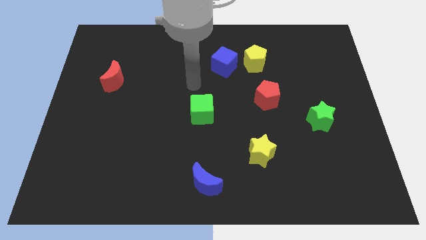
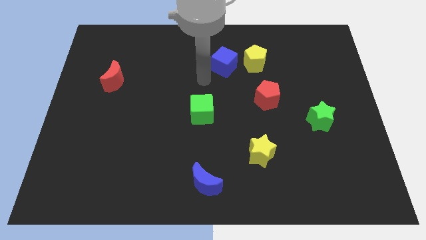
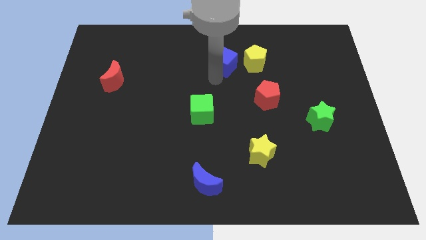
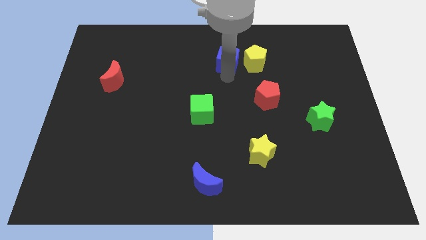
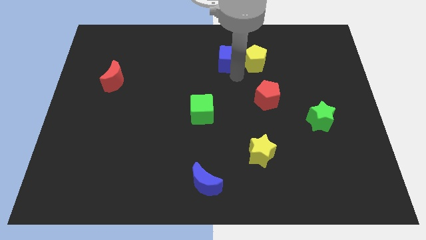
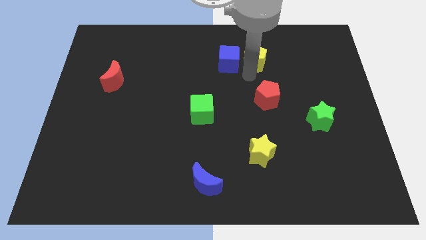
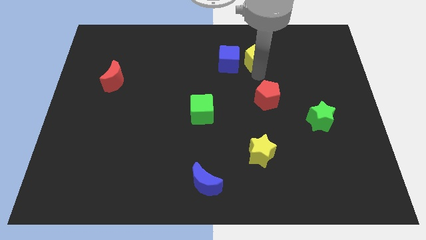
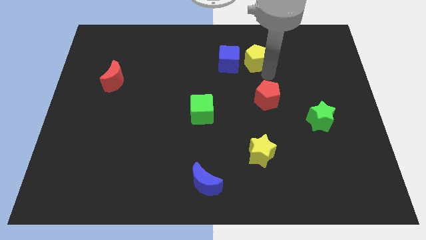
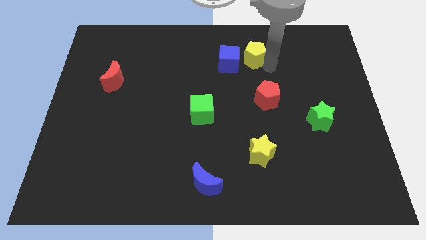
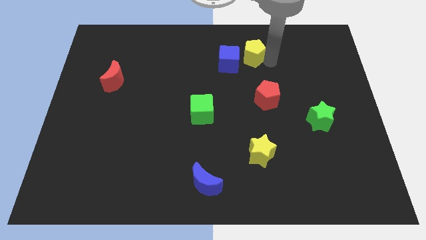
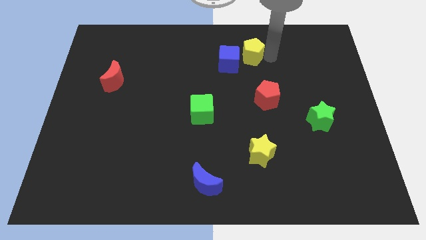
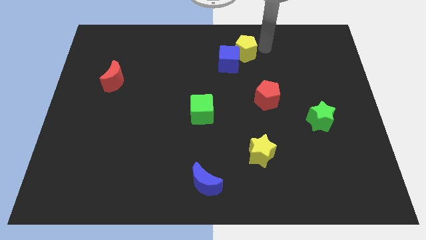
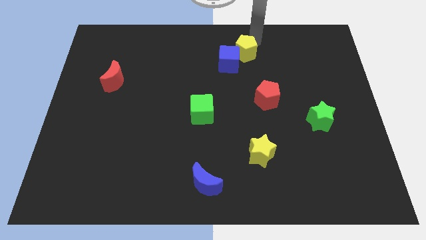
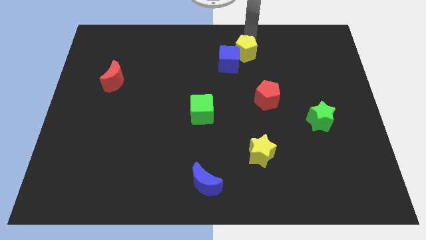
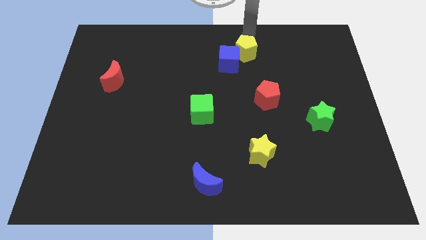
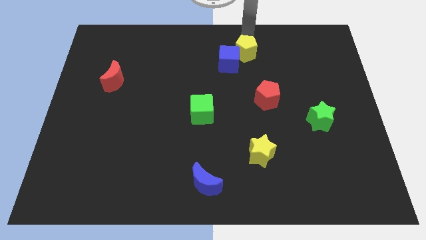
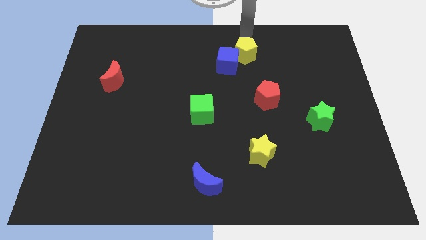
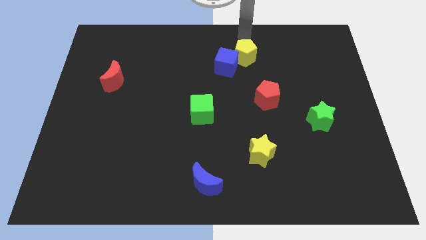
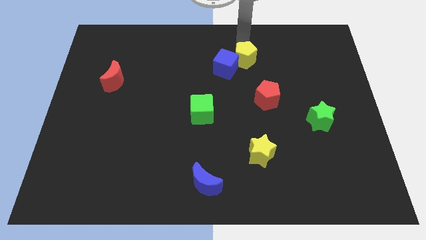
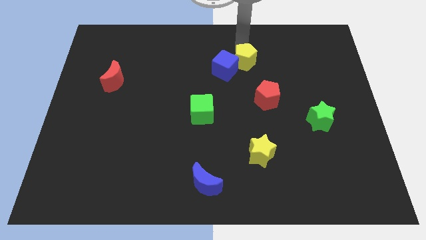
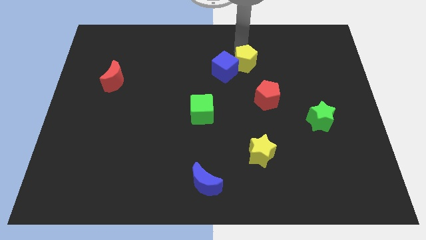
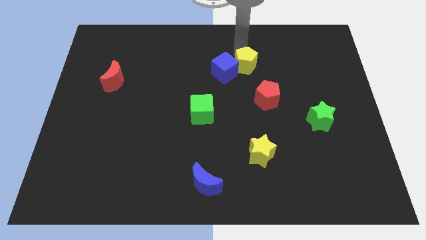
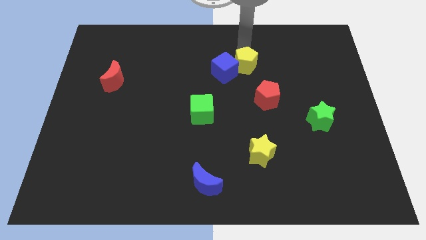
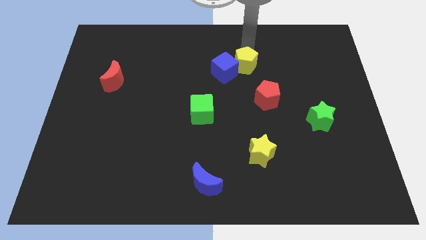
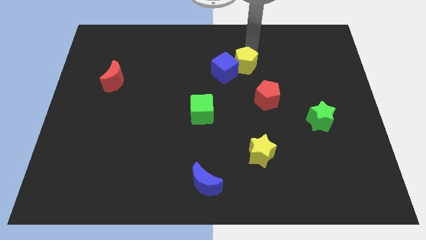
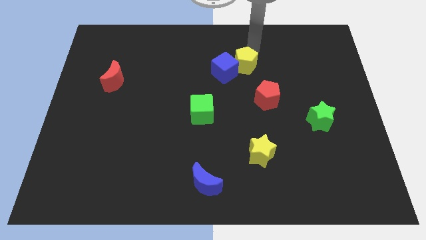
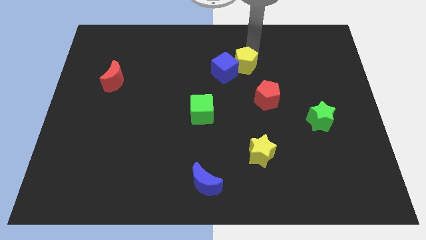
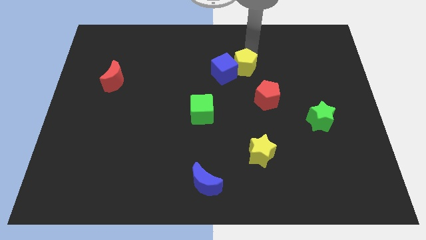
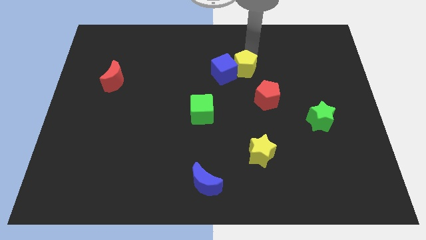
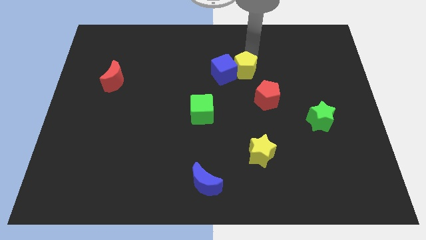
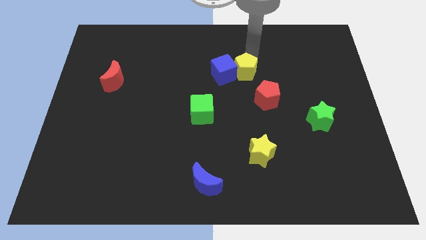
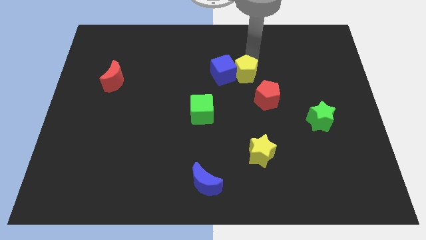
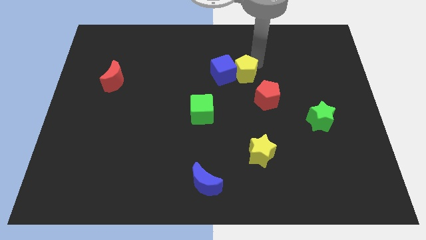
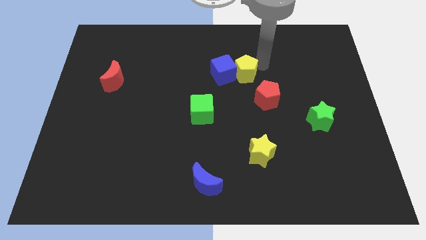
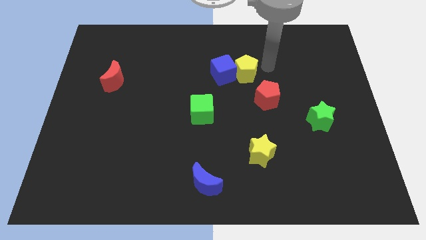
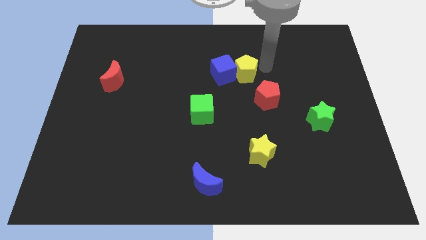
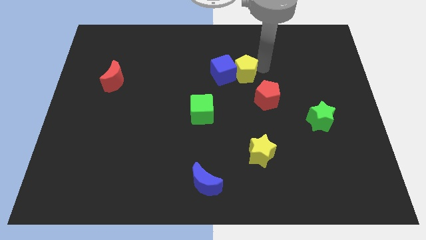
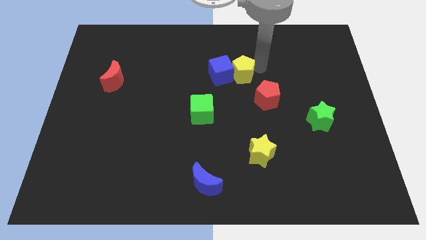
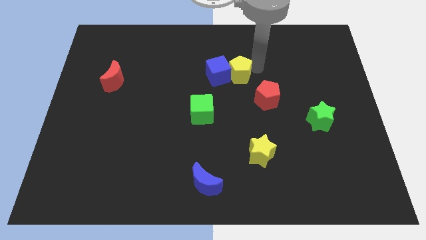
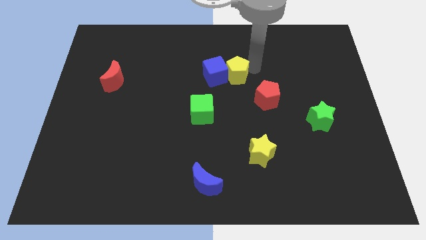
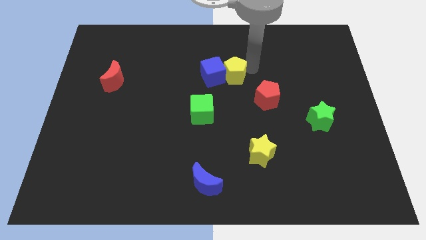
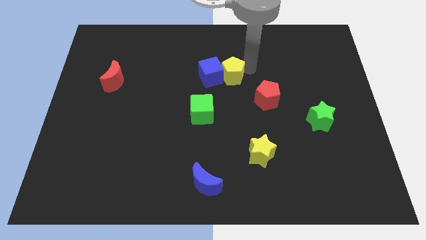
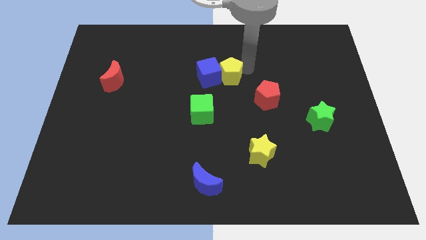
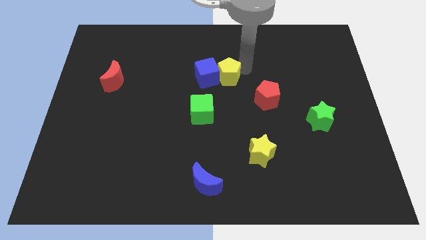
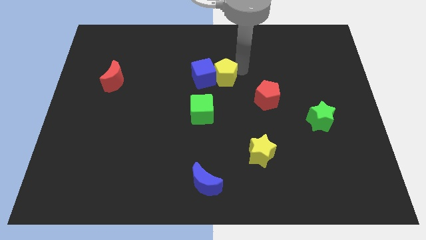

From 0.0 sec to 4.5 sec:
slightly slide the yellow pentagon left

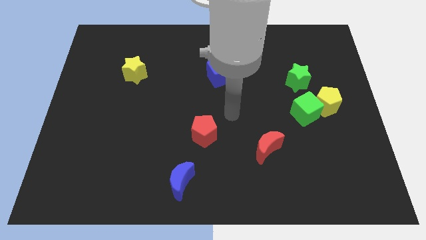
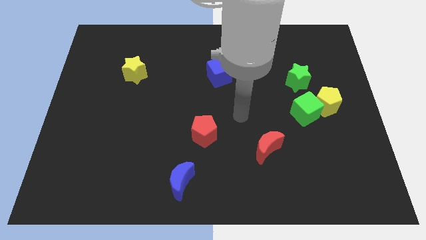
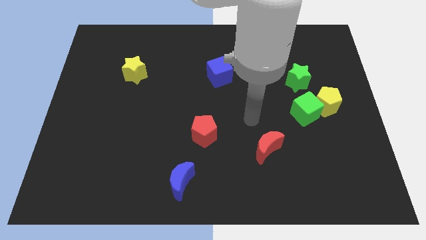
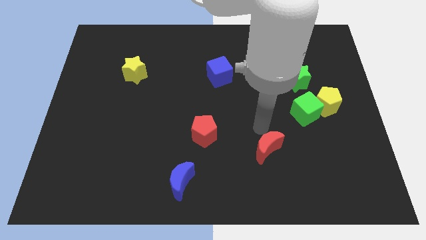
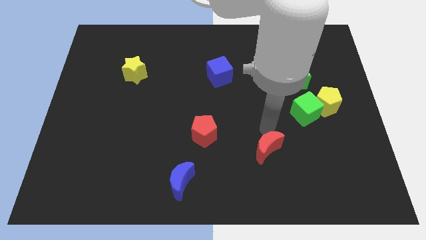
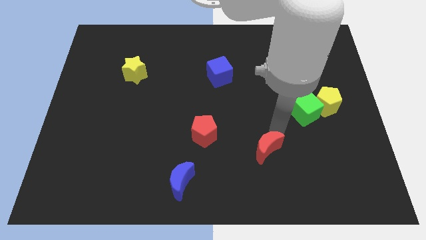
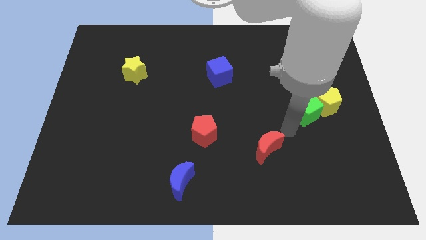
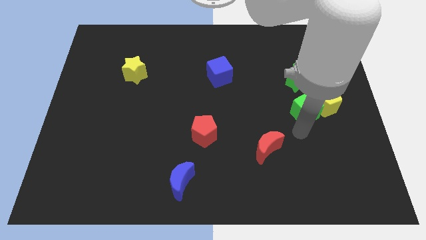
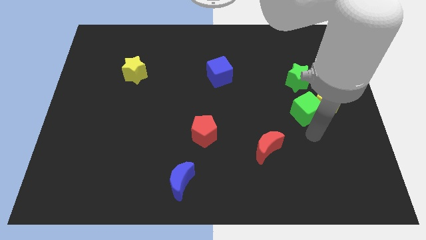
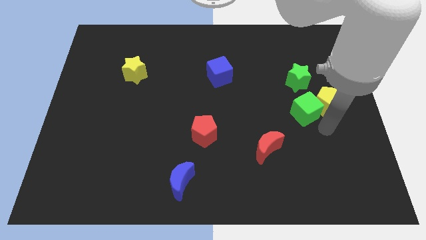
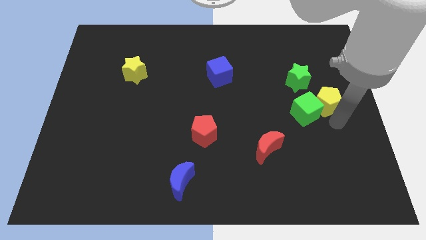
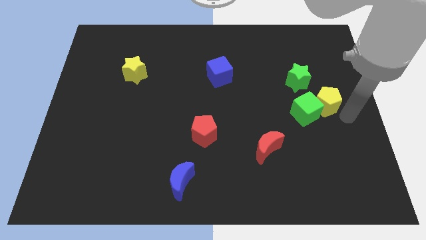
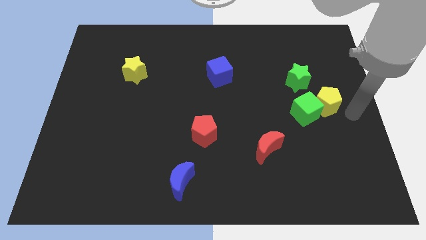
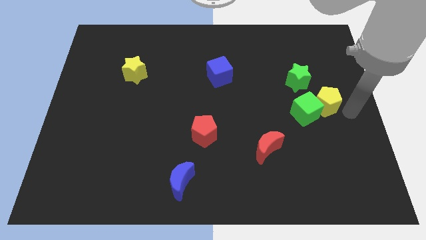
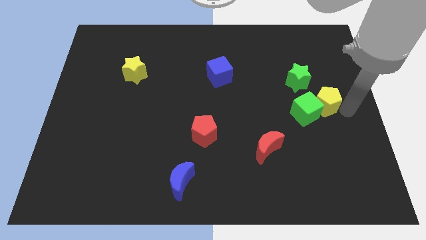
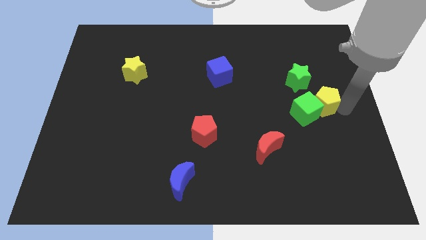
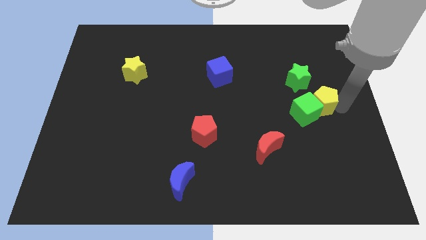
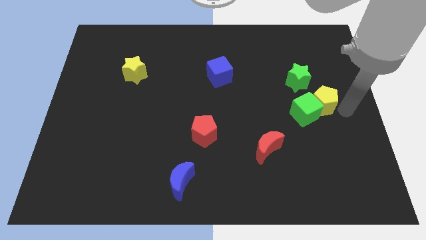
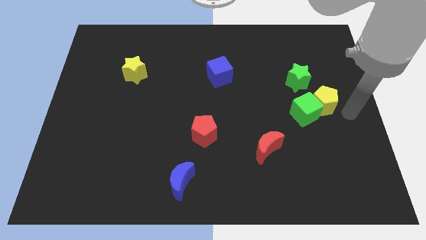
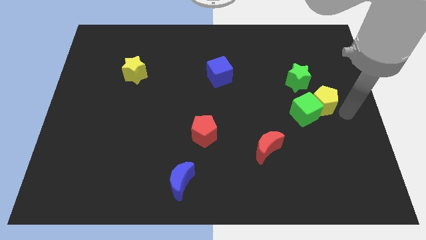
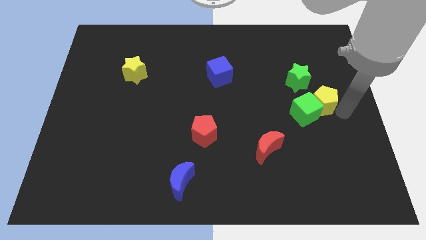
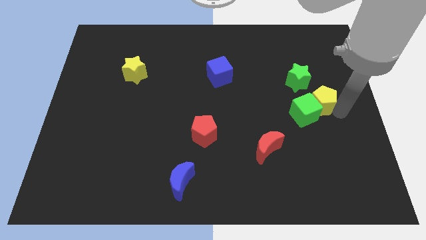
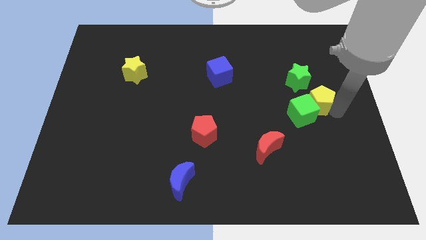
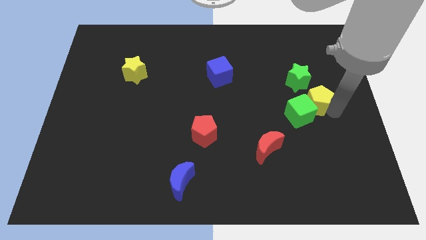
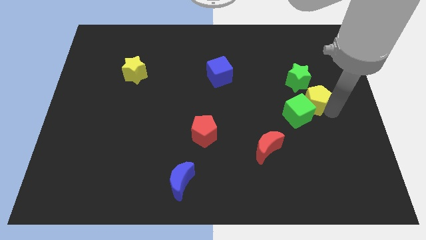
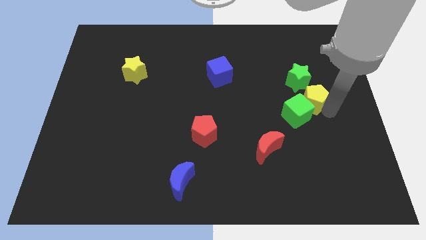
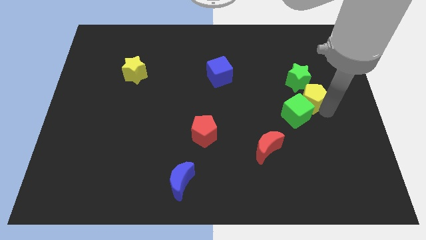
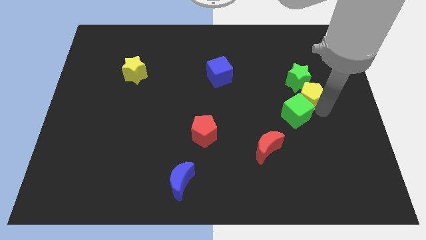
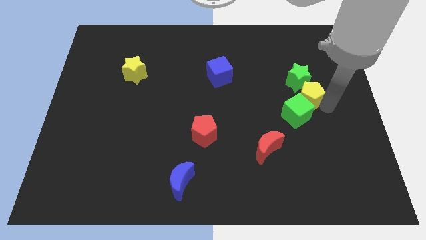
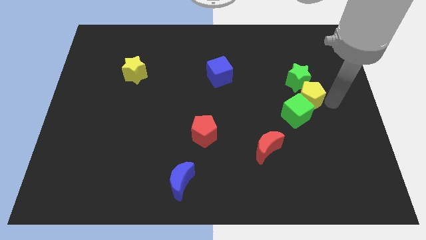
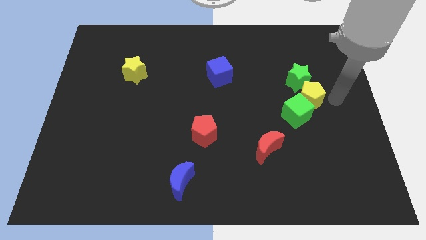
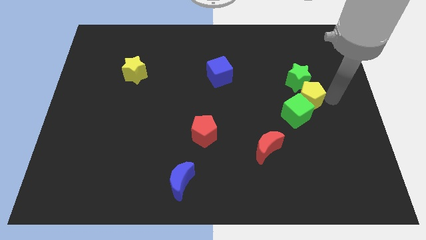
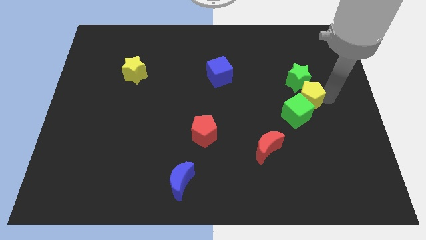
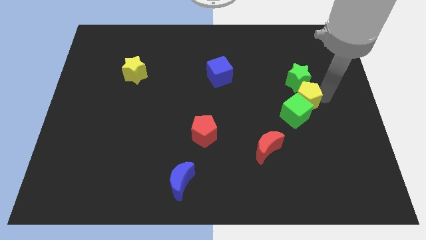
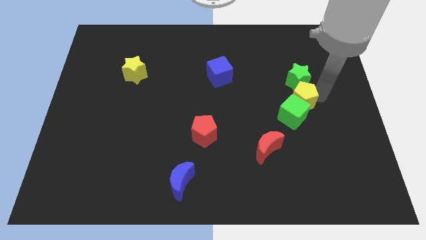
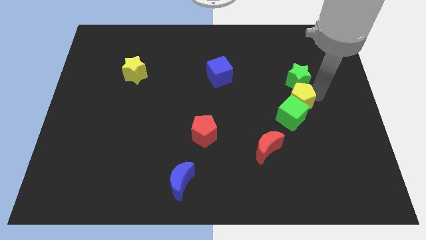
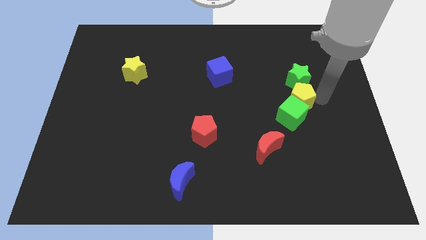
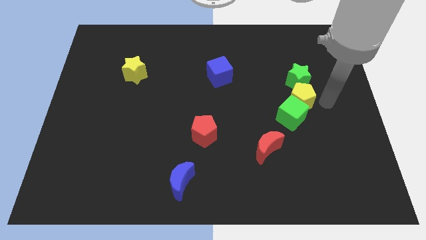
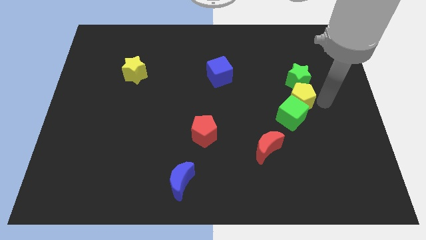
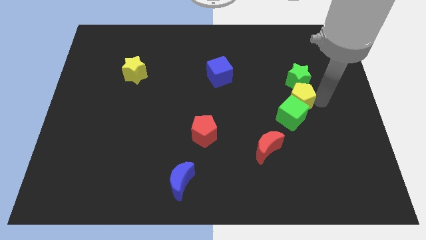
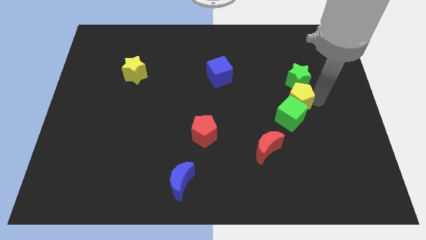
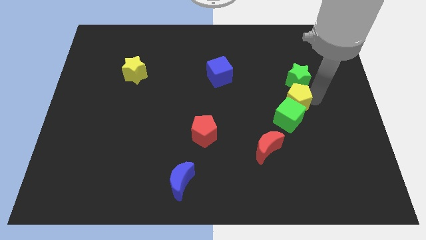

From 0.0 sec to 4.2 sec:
push the yellow pentagon to the left a little
